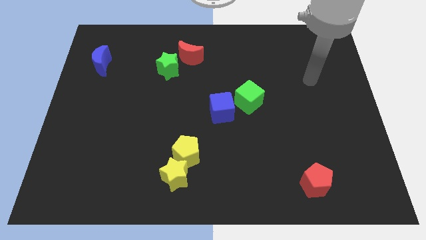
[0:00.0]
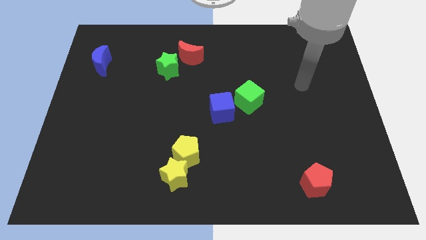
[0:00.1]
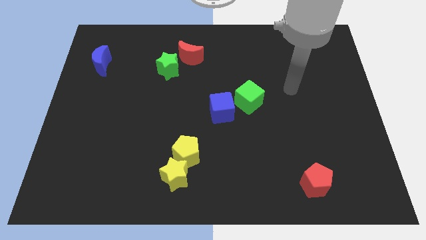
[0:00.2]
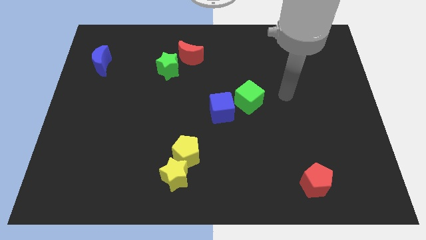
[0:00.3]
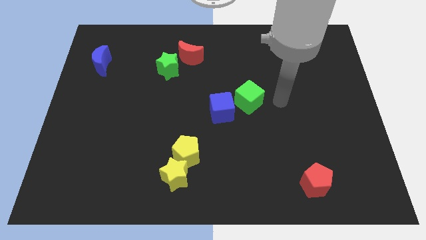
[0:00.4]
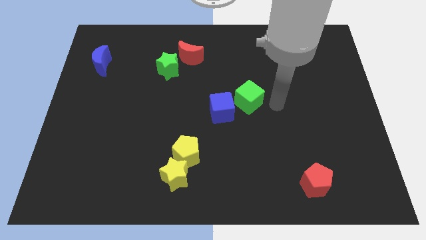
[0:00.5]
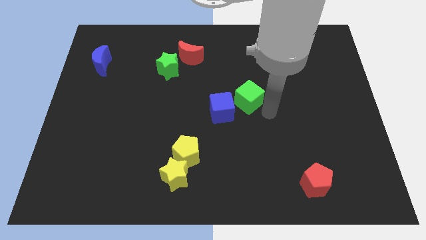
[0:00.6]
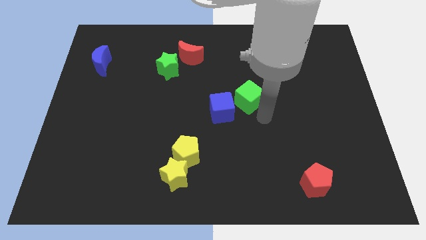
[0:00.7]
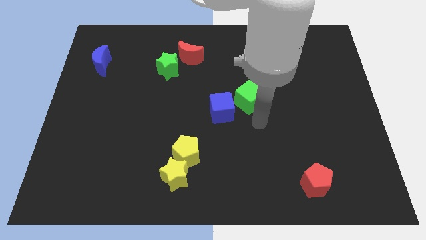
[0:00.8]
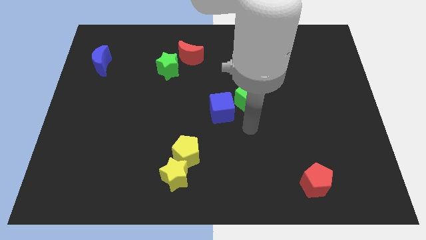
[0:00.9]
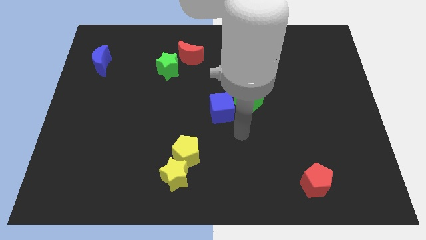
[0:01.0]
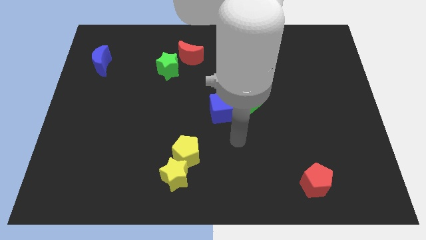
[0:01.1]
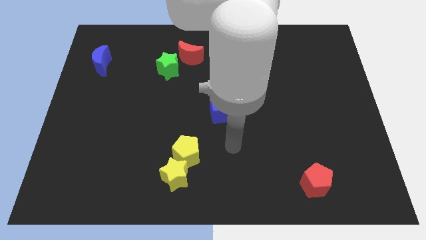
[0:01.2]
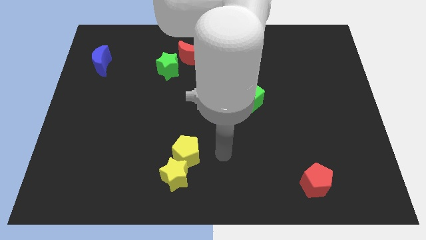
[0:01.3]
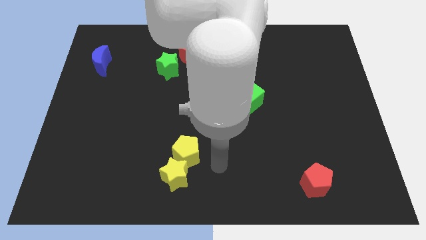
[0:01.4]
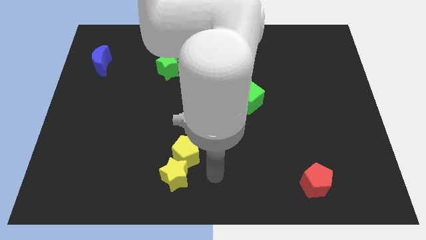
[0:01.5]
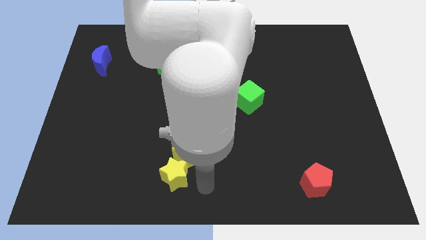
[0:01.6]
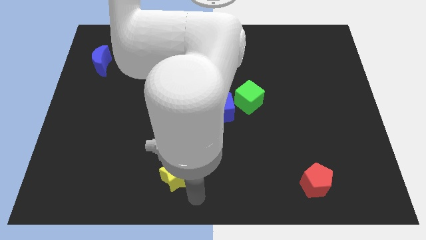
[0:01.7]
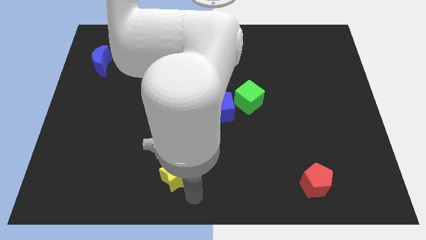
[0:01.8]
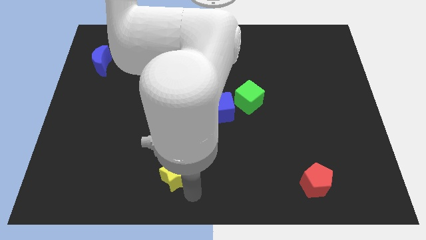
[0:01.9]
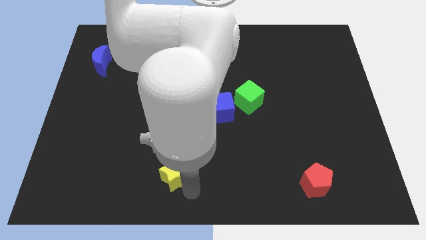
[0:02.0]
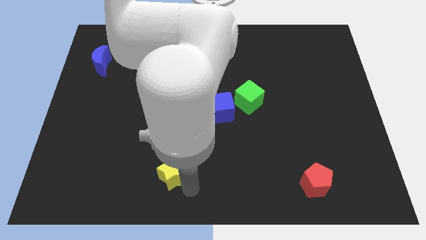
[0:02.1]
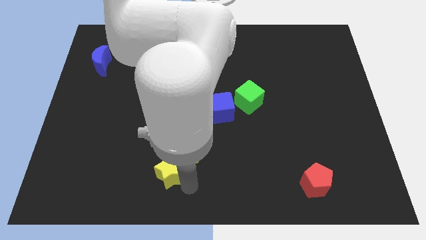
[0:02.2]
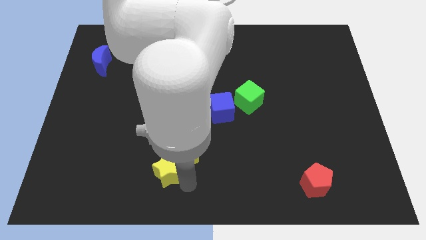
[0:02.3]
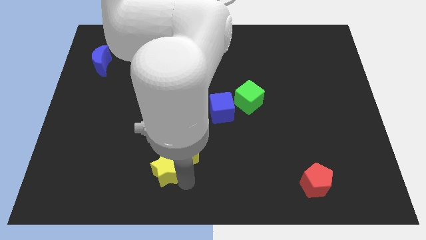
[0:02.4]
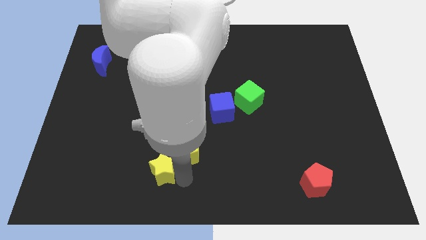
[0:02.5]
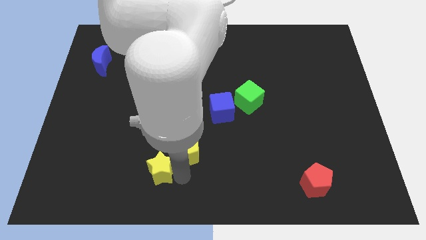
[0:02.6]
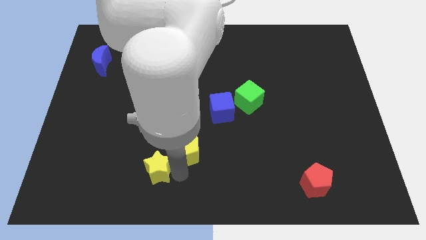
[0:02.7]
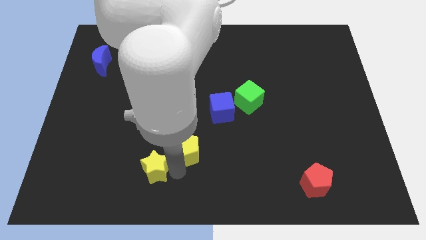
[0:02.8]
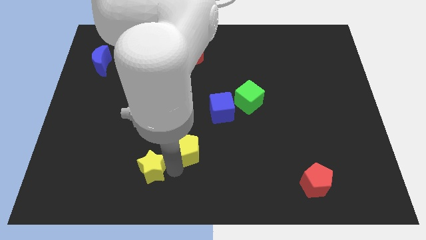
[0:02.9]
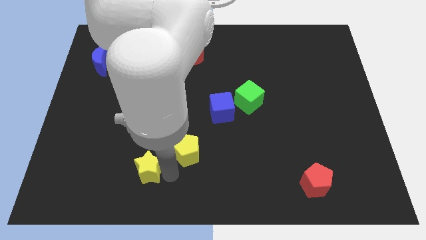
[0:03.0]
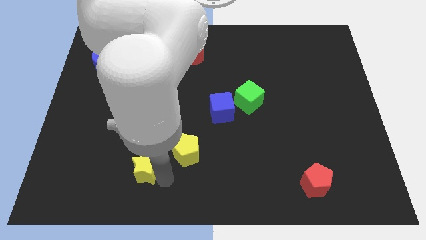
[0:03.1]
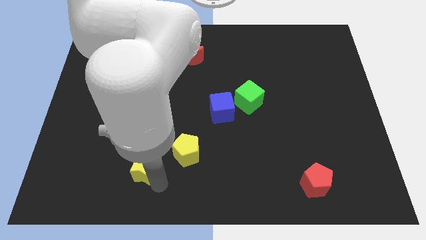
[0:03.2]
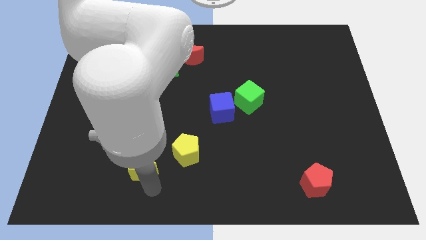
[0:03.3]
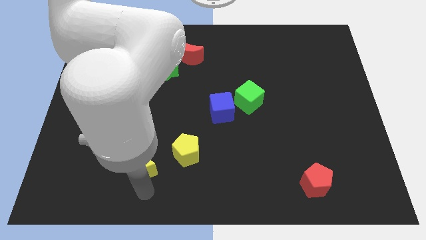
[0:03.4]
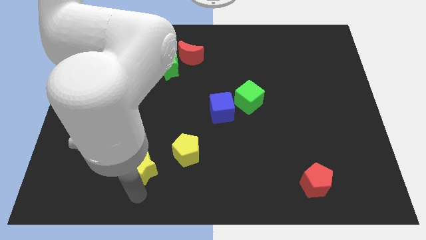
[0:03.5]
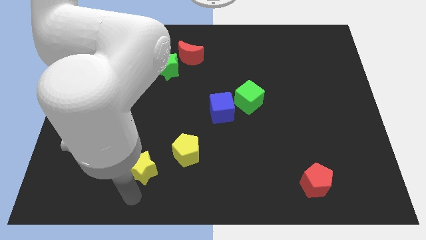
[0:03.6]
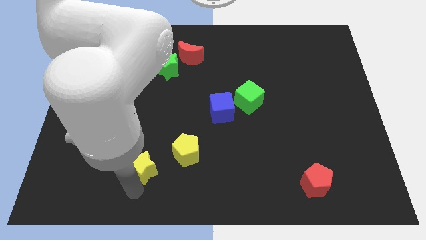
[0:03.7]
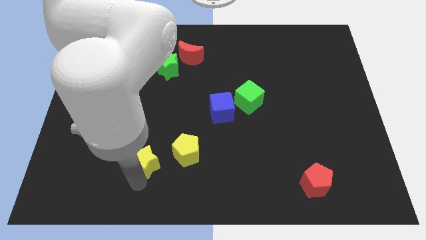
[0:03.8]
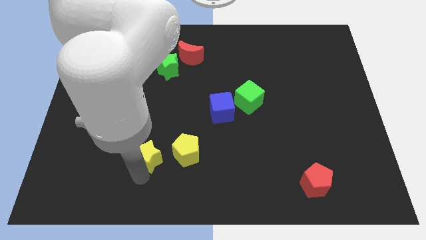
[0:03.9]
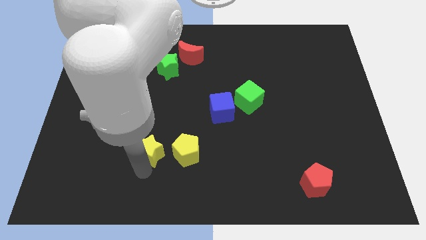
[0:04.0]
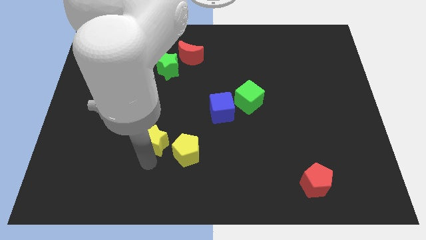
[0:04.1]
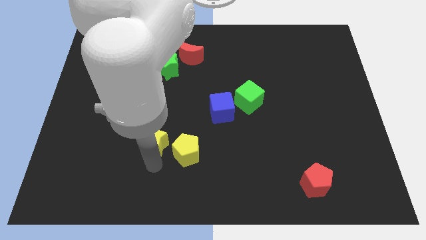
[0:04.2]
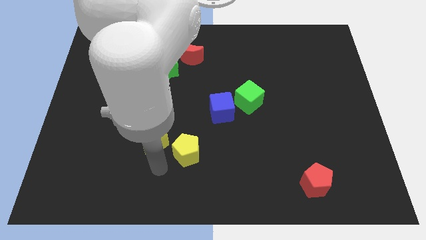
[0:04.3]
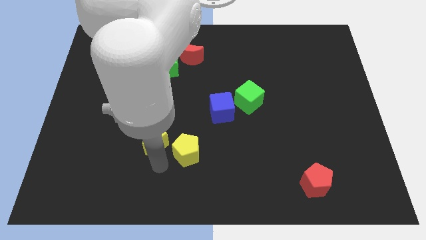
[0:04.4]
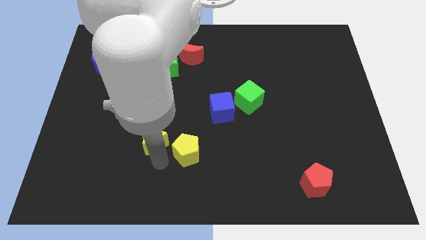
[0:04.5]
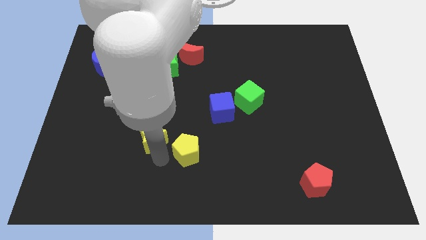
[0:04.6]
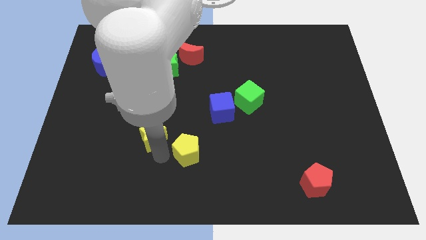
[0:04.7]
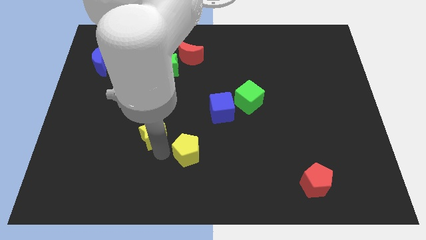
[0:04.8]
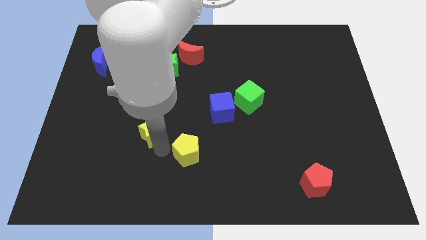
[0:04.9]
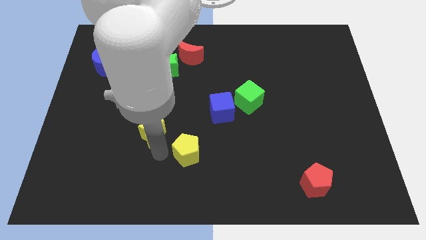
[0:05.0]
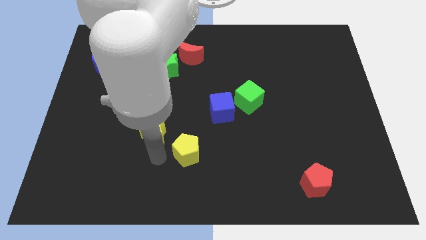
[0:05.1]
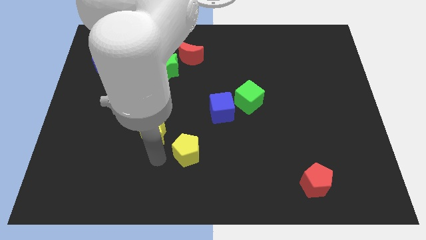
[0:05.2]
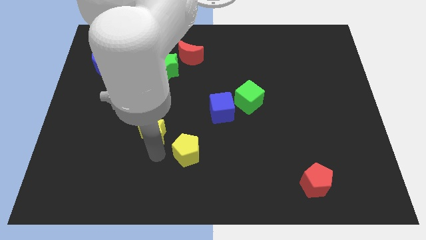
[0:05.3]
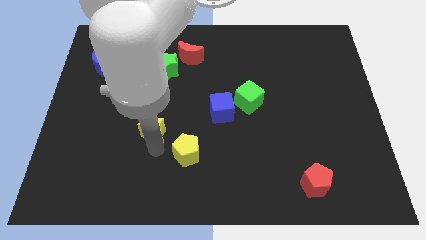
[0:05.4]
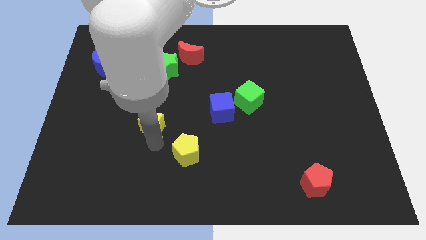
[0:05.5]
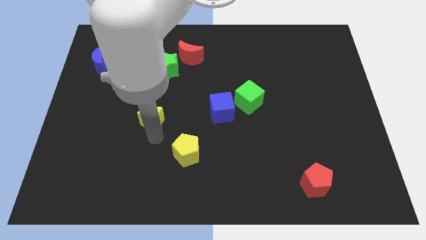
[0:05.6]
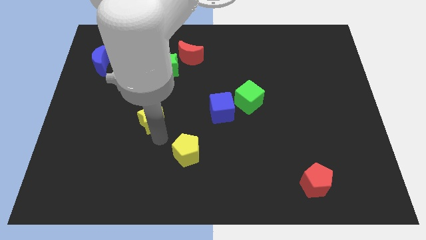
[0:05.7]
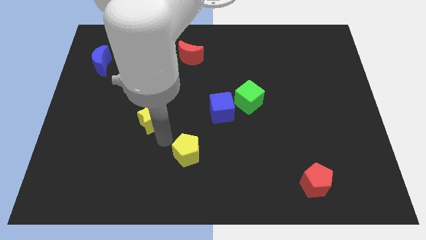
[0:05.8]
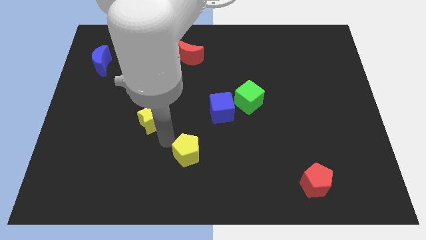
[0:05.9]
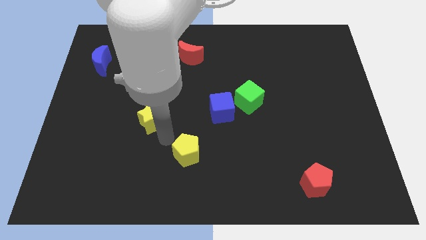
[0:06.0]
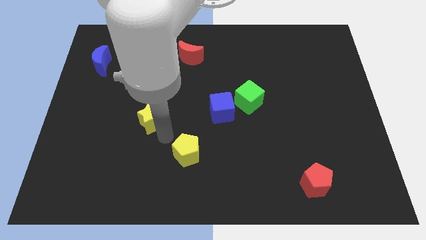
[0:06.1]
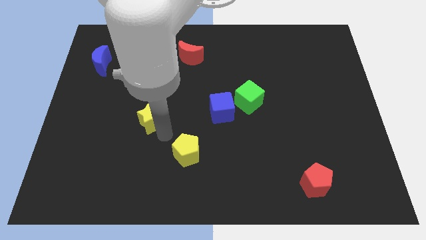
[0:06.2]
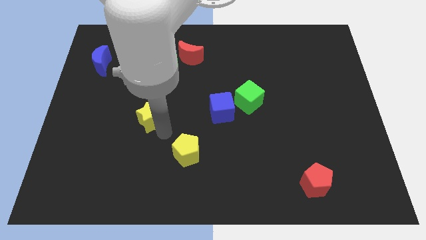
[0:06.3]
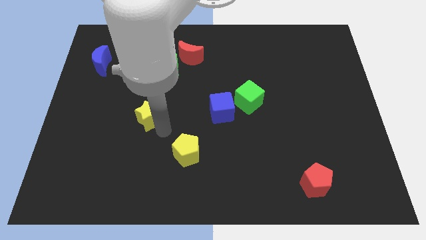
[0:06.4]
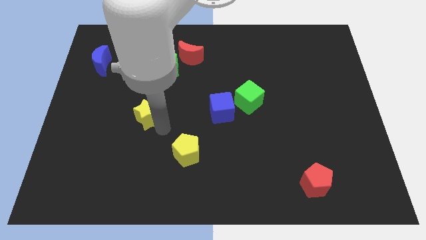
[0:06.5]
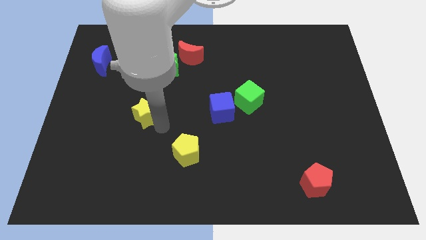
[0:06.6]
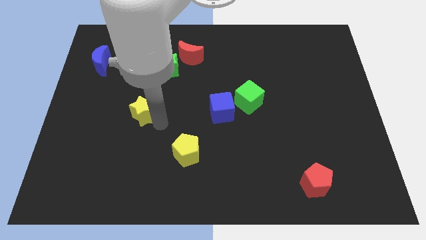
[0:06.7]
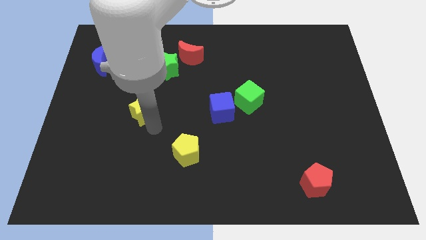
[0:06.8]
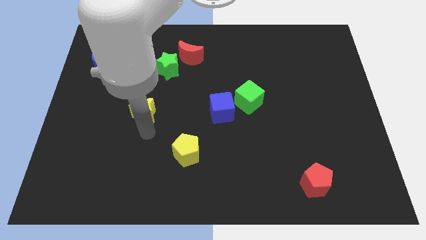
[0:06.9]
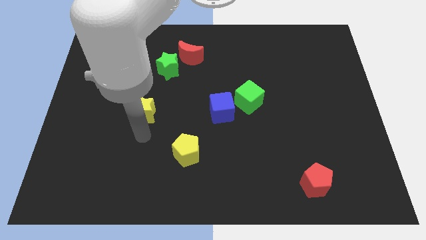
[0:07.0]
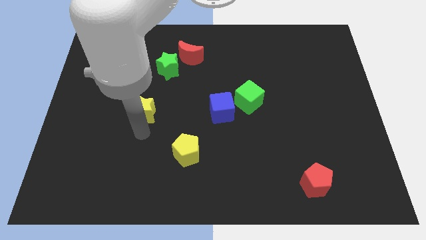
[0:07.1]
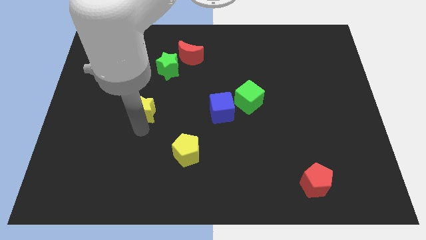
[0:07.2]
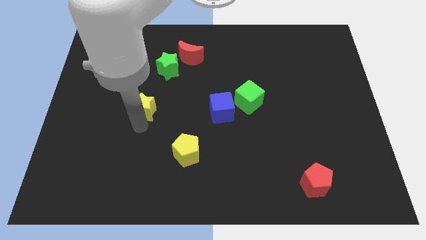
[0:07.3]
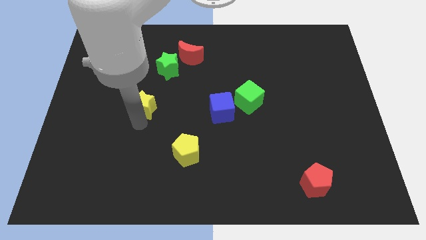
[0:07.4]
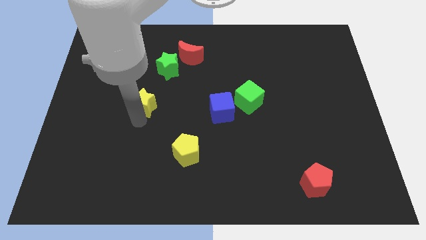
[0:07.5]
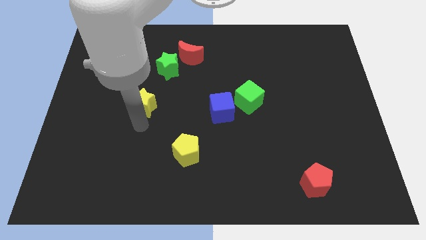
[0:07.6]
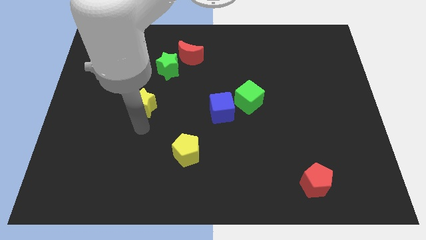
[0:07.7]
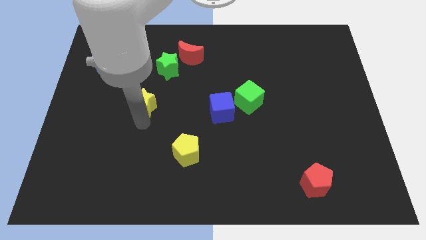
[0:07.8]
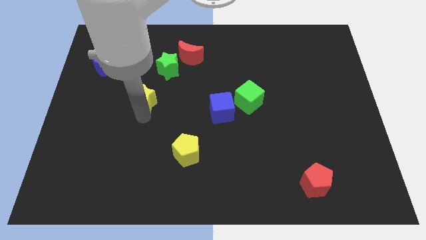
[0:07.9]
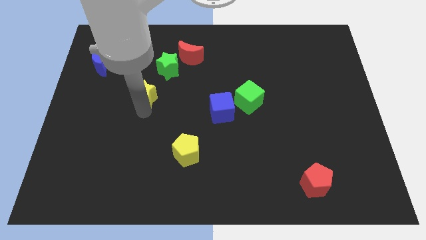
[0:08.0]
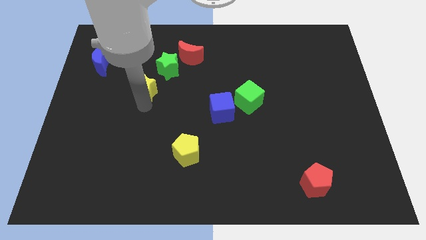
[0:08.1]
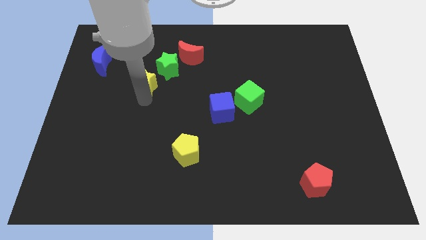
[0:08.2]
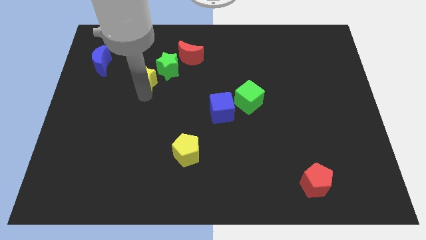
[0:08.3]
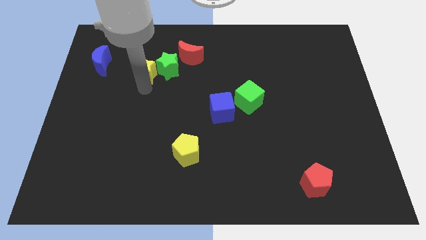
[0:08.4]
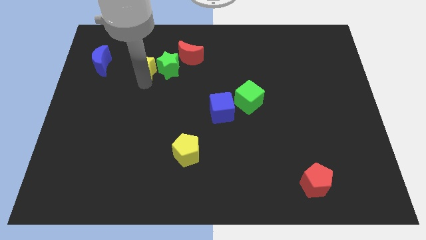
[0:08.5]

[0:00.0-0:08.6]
move the yellow star to the top left side of the green star
